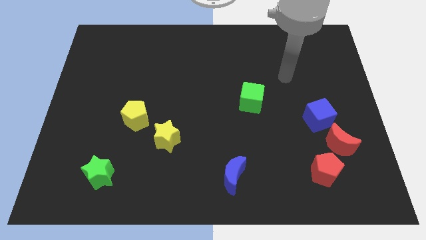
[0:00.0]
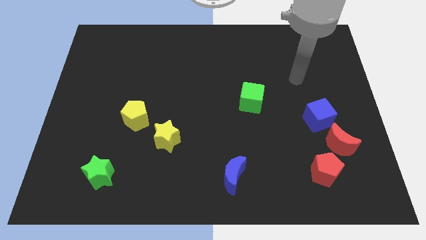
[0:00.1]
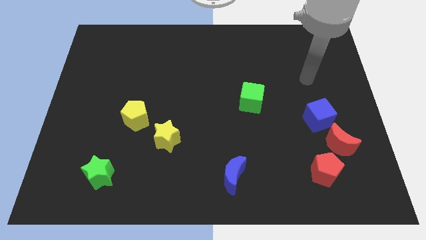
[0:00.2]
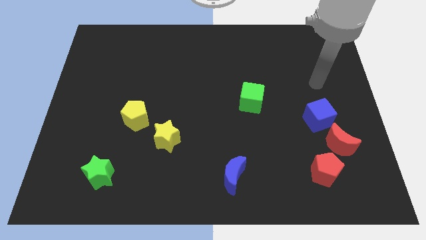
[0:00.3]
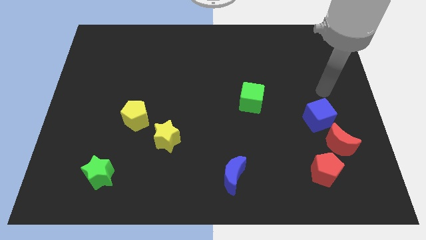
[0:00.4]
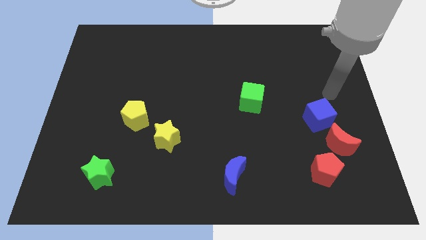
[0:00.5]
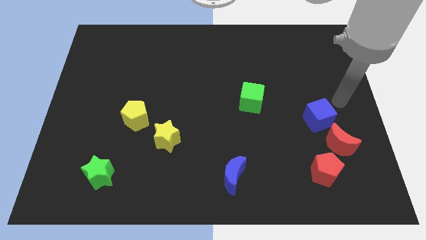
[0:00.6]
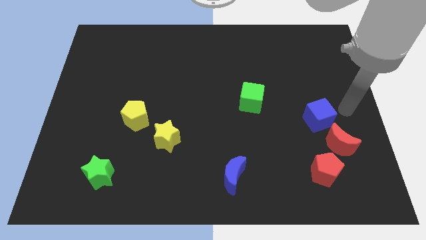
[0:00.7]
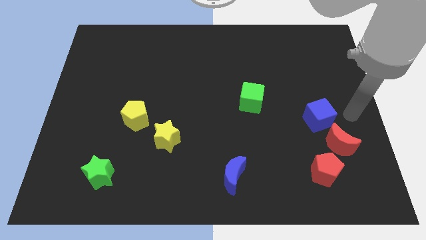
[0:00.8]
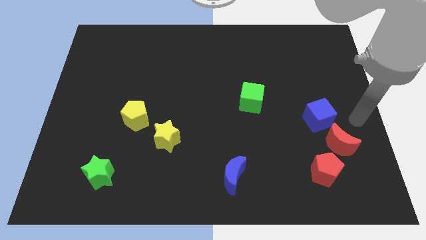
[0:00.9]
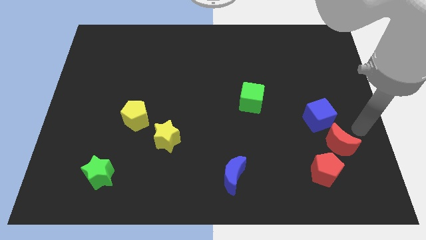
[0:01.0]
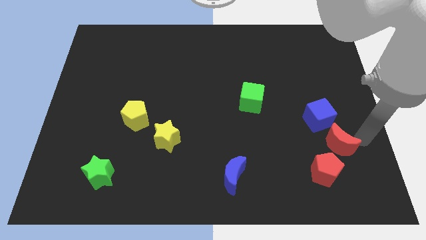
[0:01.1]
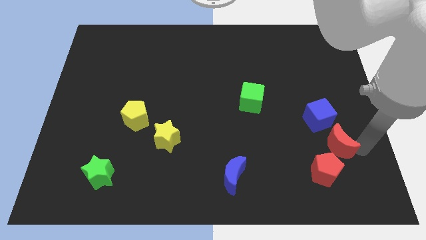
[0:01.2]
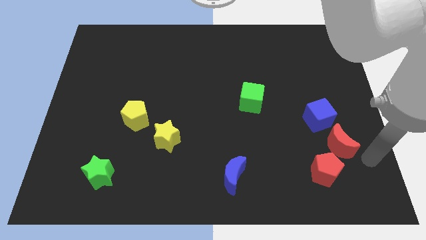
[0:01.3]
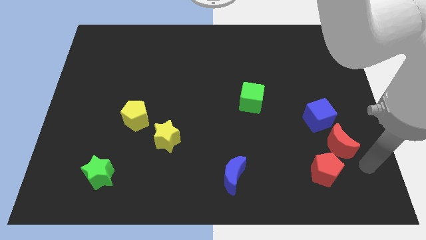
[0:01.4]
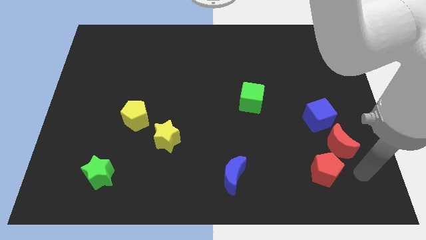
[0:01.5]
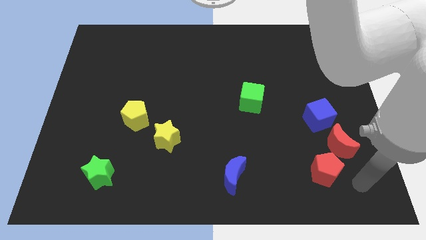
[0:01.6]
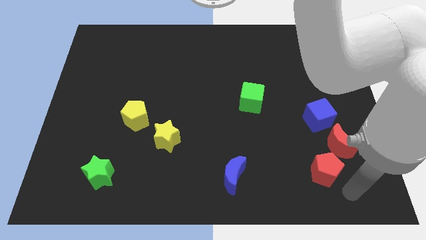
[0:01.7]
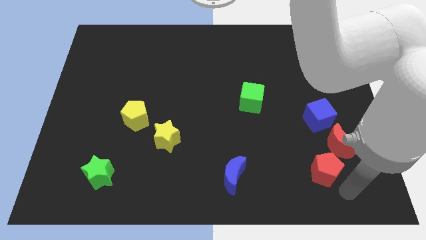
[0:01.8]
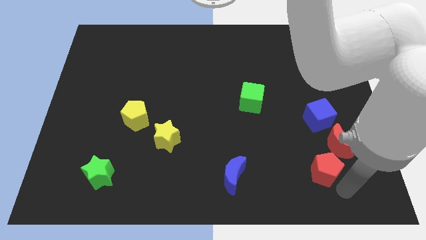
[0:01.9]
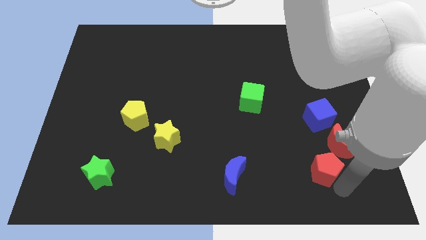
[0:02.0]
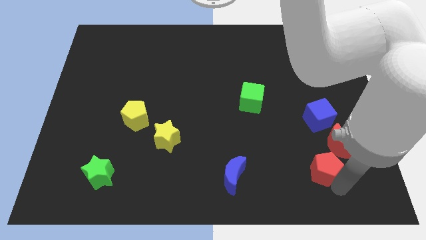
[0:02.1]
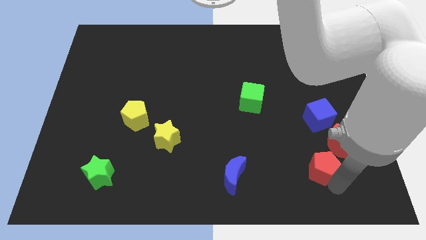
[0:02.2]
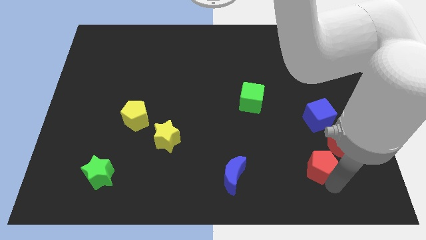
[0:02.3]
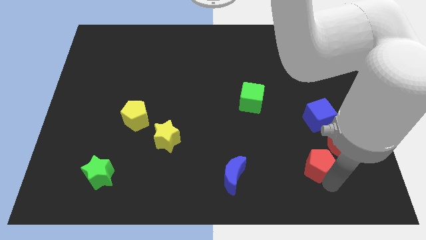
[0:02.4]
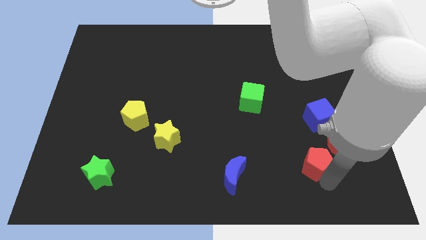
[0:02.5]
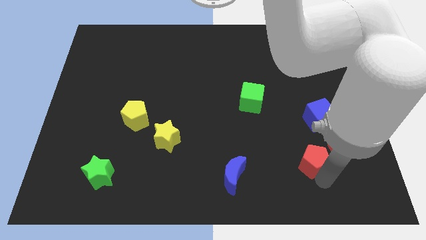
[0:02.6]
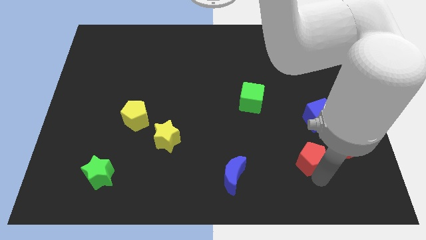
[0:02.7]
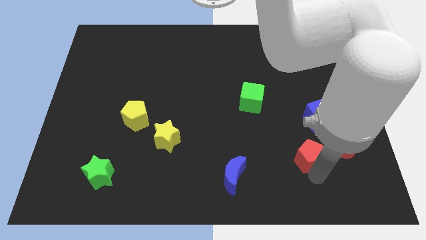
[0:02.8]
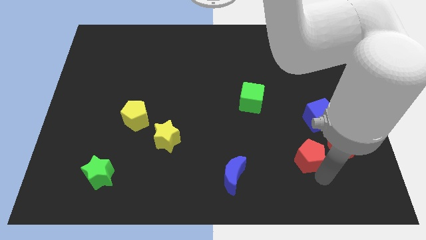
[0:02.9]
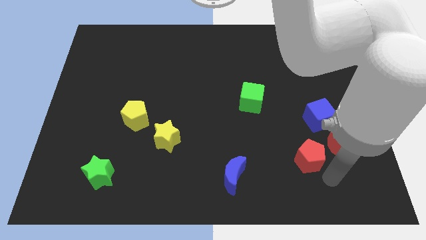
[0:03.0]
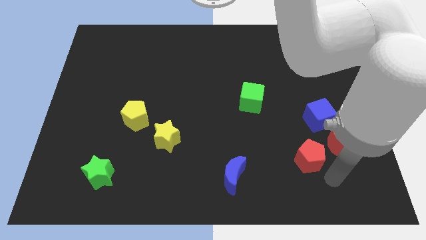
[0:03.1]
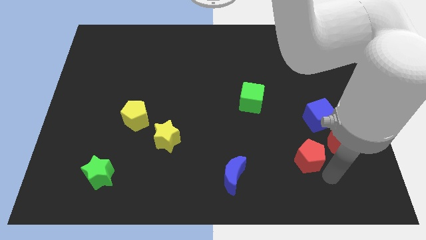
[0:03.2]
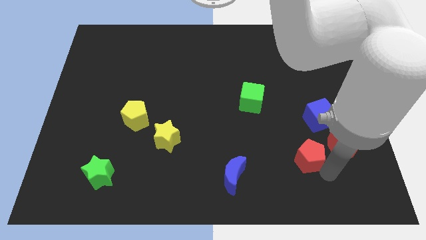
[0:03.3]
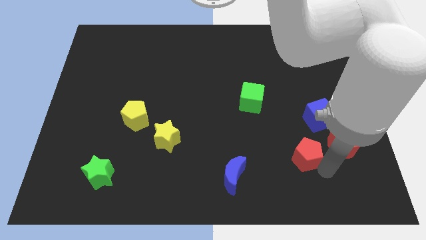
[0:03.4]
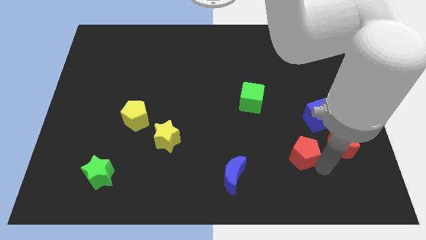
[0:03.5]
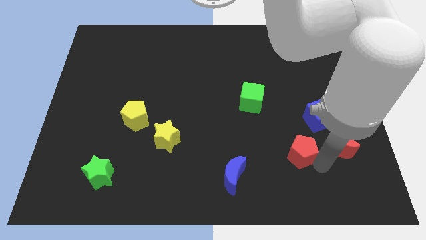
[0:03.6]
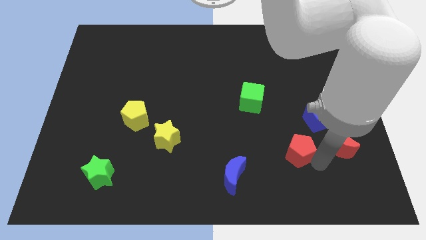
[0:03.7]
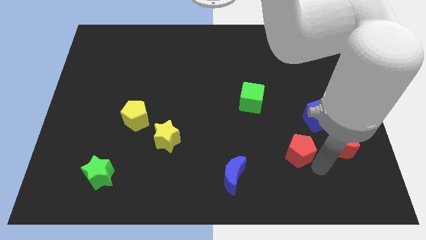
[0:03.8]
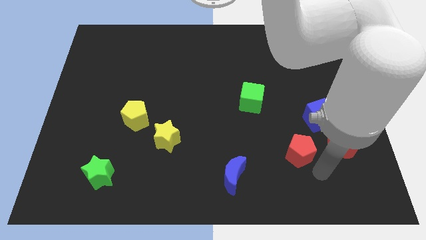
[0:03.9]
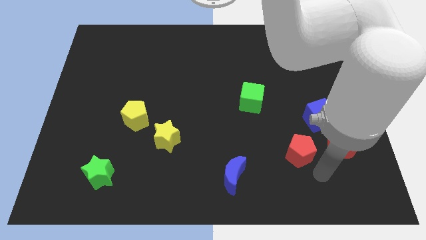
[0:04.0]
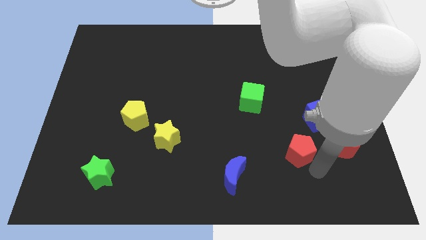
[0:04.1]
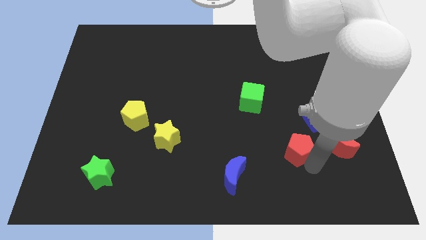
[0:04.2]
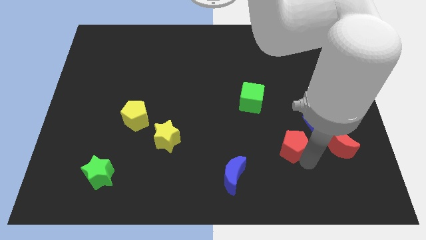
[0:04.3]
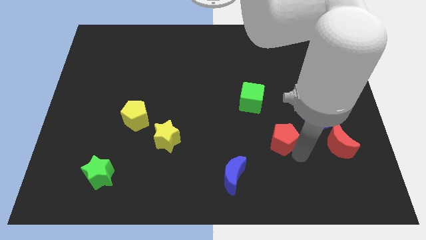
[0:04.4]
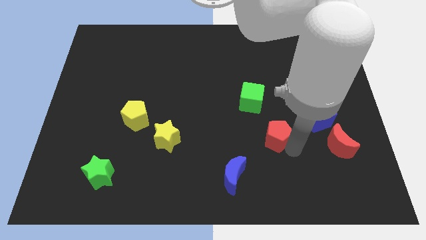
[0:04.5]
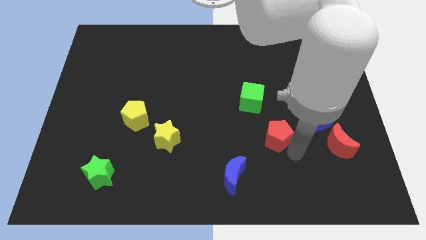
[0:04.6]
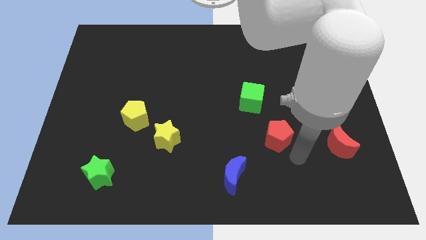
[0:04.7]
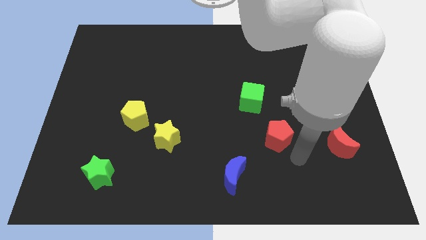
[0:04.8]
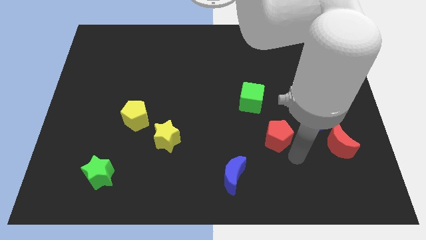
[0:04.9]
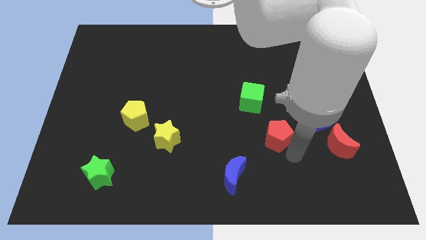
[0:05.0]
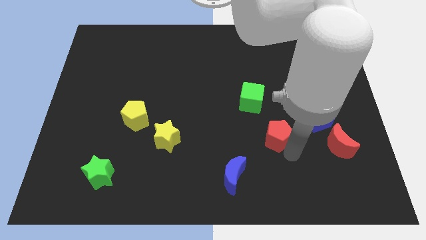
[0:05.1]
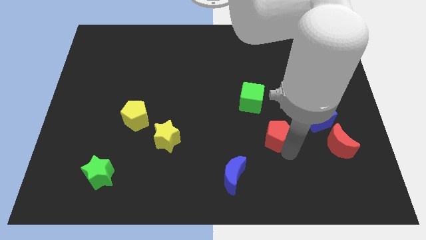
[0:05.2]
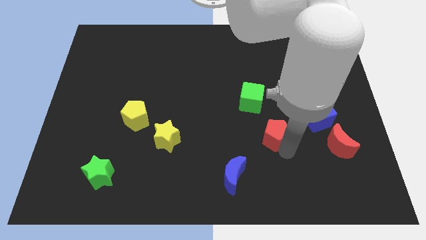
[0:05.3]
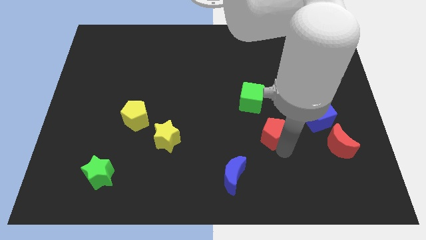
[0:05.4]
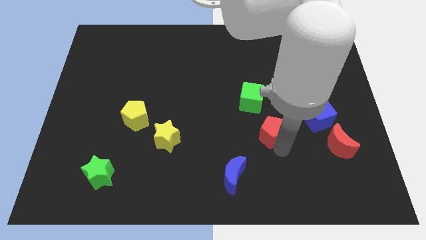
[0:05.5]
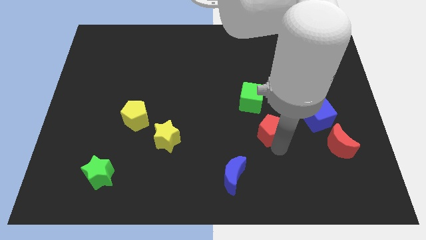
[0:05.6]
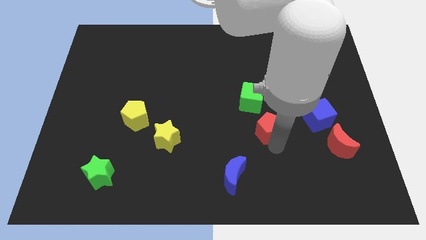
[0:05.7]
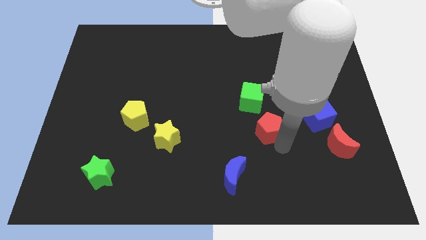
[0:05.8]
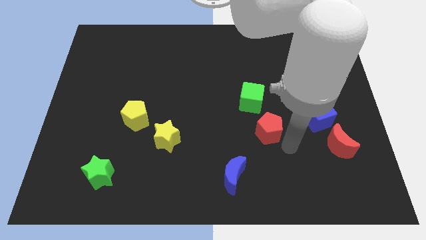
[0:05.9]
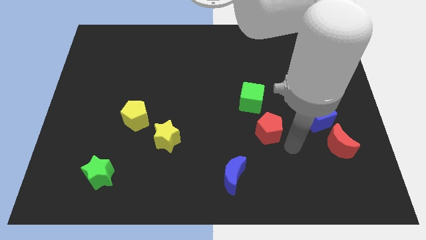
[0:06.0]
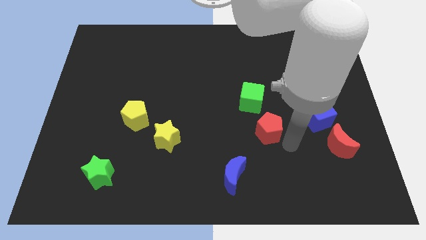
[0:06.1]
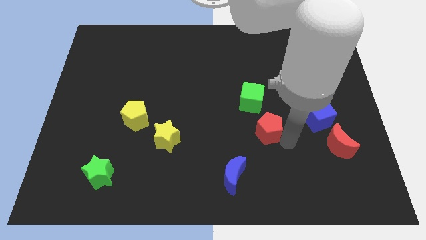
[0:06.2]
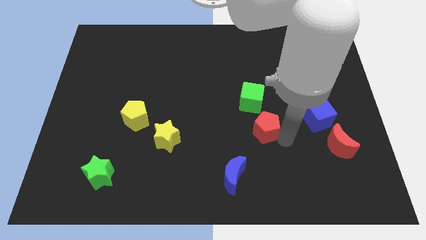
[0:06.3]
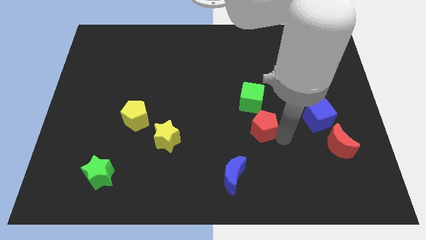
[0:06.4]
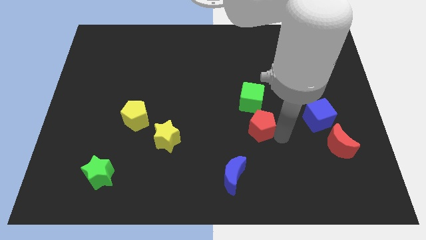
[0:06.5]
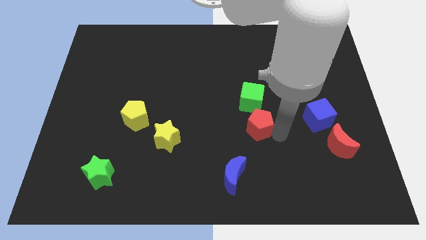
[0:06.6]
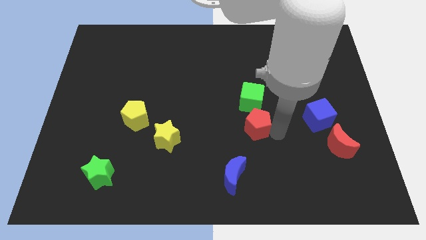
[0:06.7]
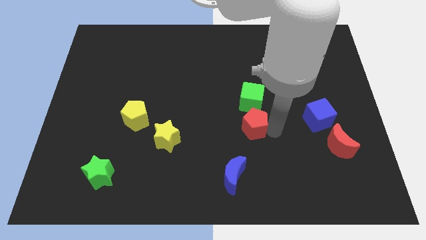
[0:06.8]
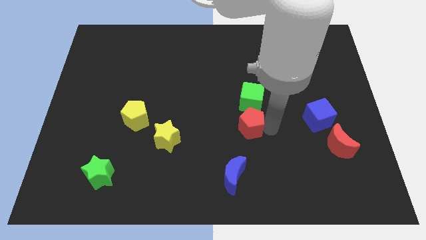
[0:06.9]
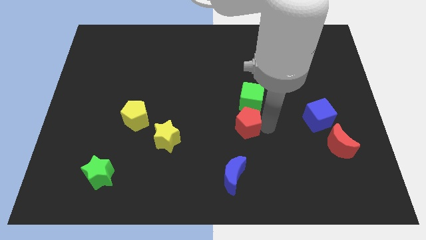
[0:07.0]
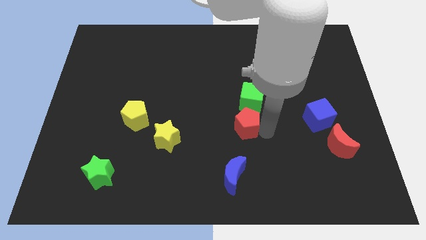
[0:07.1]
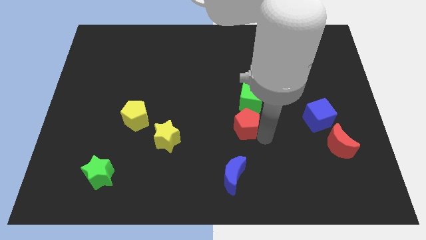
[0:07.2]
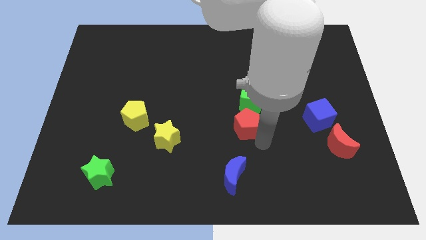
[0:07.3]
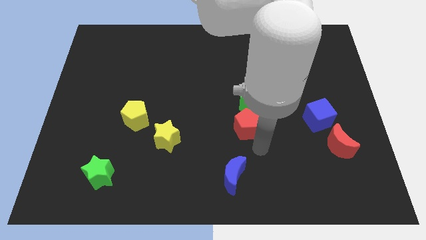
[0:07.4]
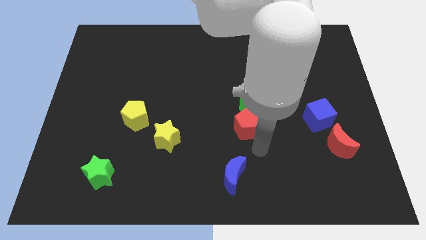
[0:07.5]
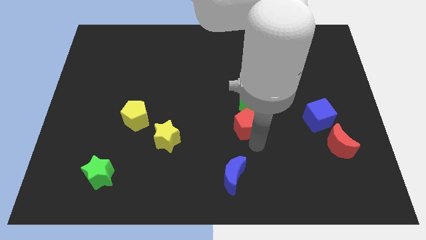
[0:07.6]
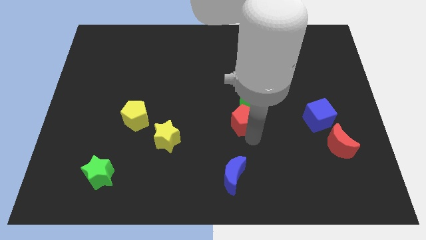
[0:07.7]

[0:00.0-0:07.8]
slide the red pentagon upwards and then to the left
